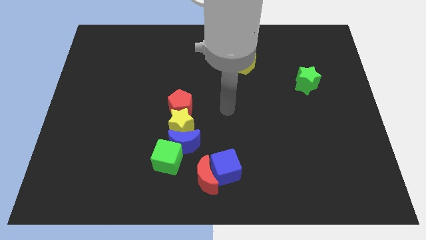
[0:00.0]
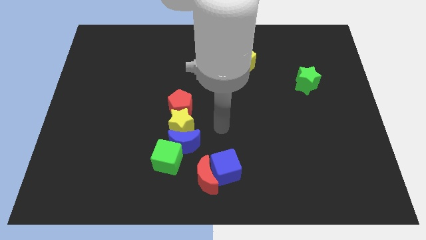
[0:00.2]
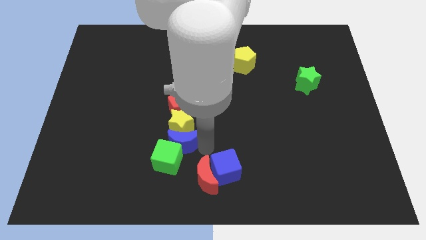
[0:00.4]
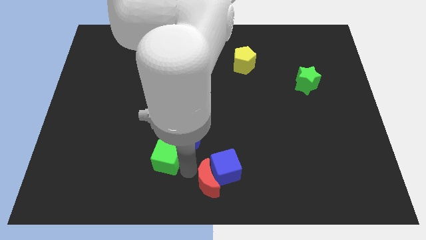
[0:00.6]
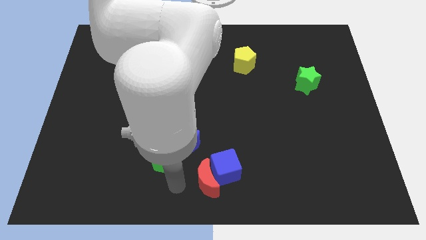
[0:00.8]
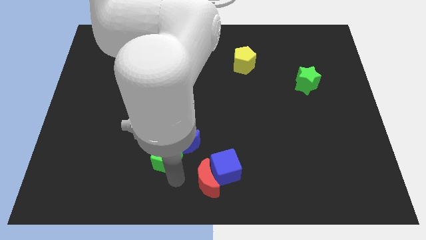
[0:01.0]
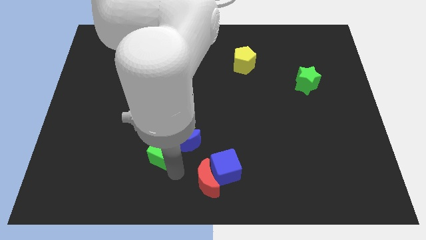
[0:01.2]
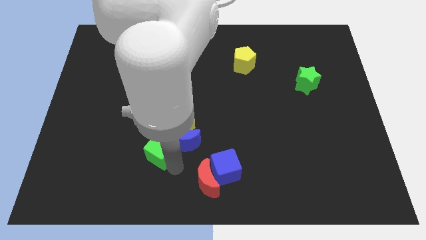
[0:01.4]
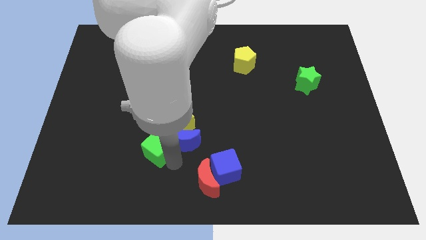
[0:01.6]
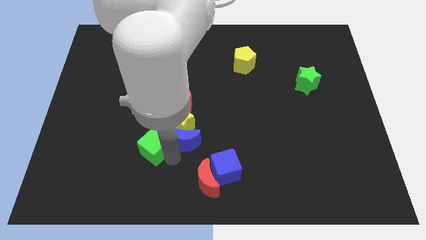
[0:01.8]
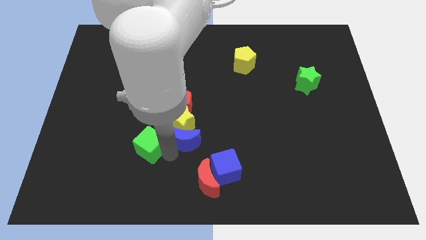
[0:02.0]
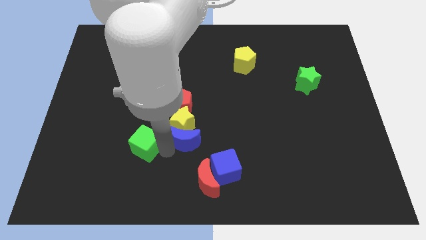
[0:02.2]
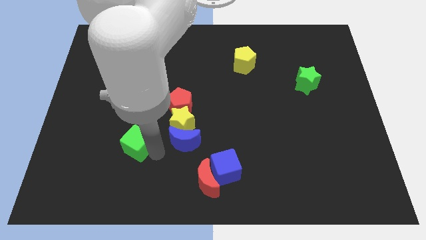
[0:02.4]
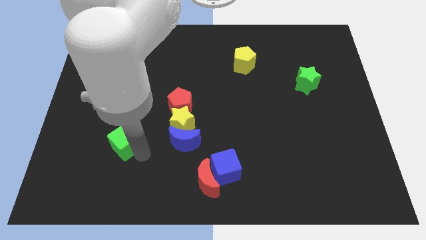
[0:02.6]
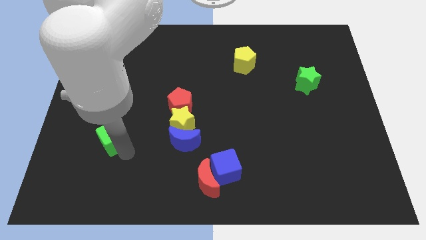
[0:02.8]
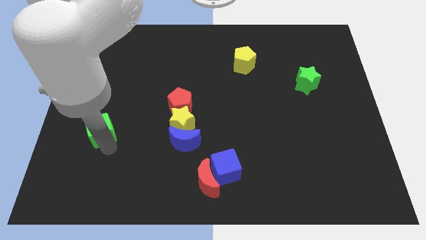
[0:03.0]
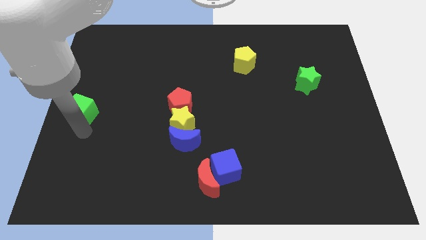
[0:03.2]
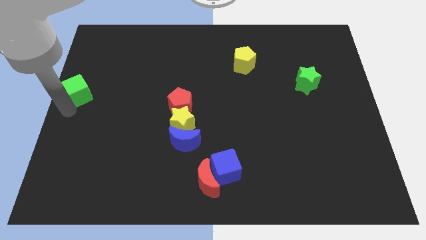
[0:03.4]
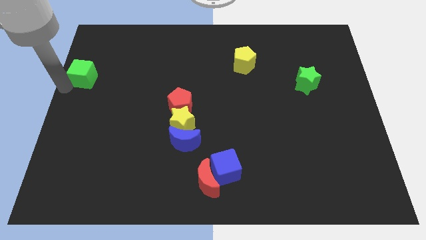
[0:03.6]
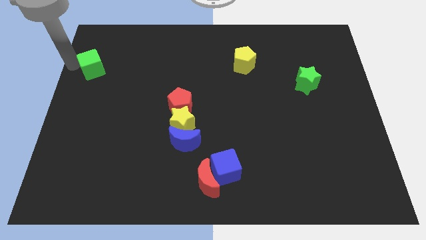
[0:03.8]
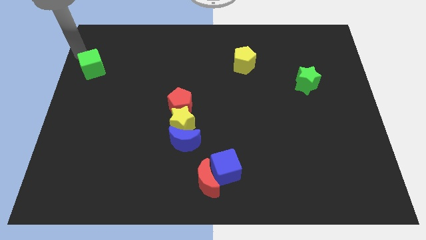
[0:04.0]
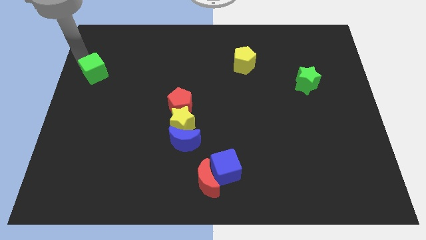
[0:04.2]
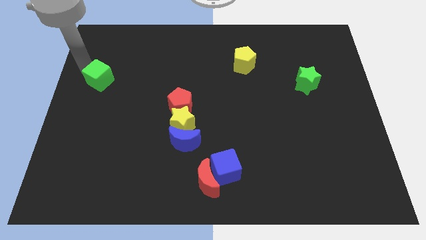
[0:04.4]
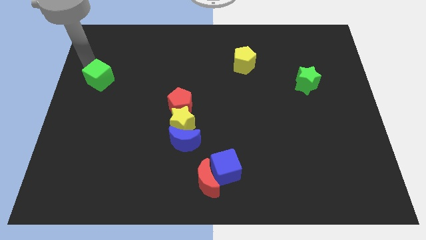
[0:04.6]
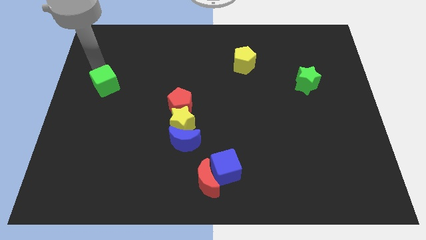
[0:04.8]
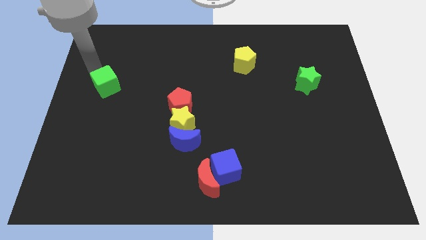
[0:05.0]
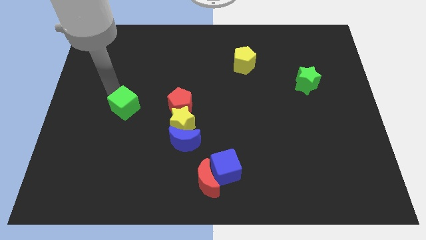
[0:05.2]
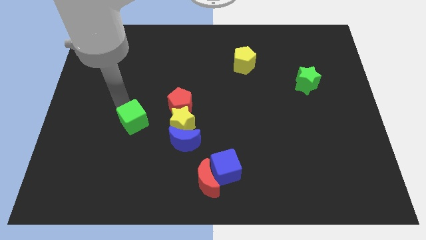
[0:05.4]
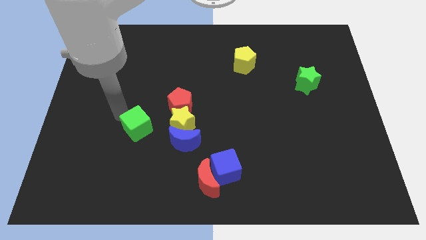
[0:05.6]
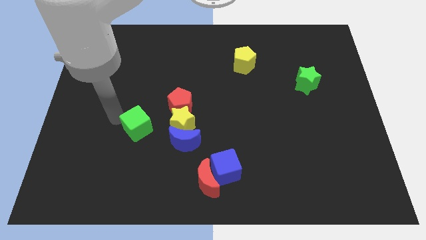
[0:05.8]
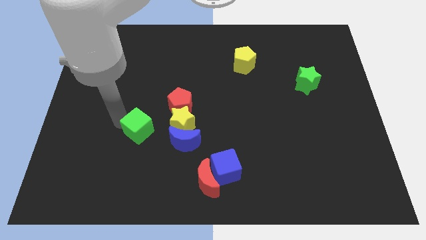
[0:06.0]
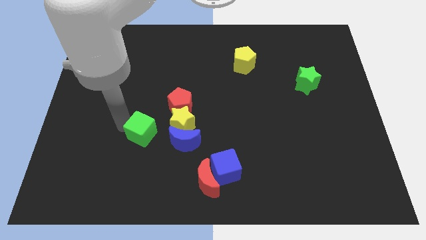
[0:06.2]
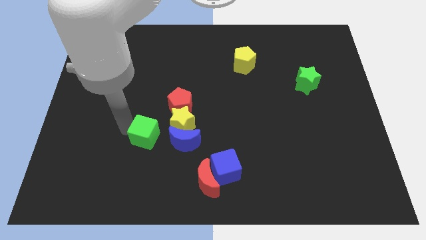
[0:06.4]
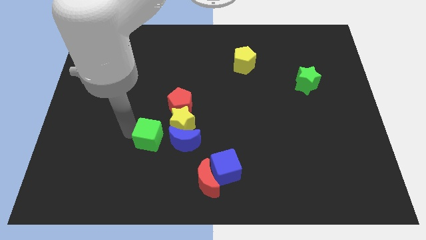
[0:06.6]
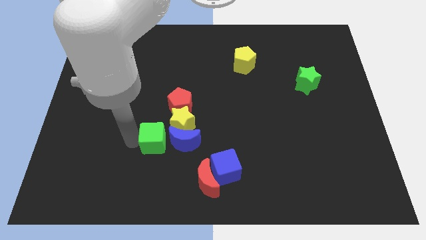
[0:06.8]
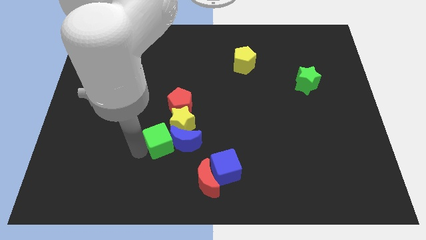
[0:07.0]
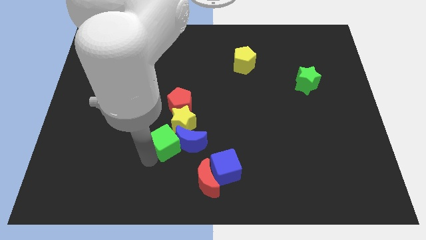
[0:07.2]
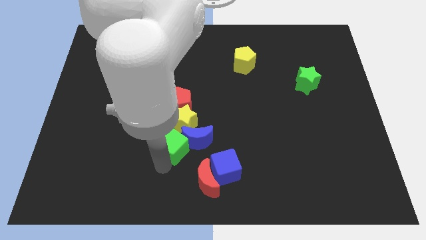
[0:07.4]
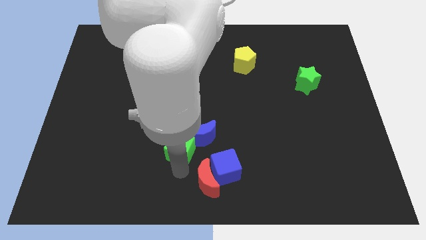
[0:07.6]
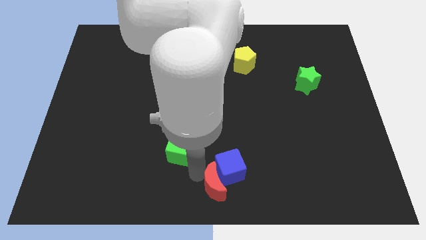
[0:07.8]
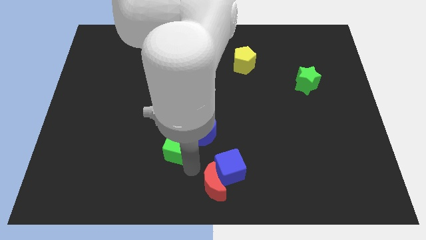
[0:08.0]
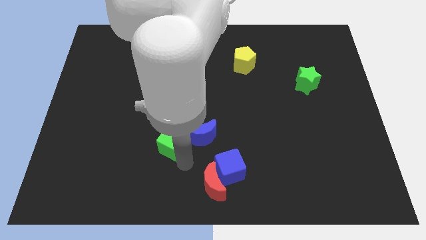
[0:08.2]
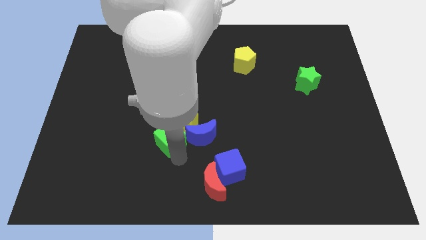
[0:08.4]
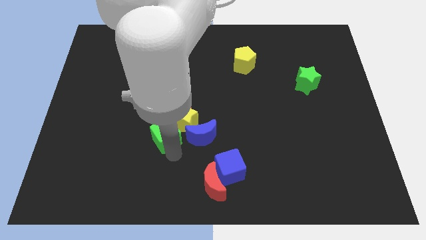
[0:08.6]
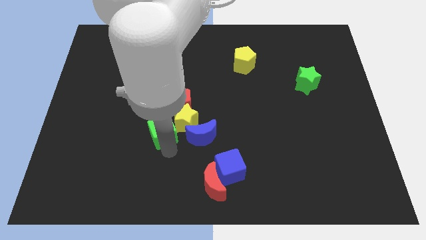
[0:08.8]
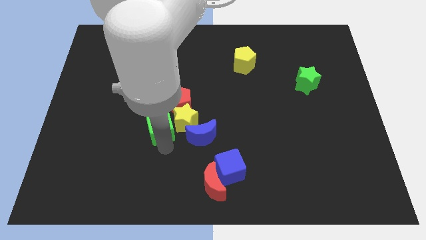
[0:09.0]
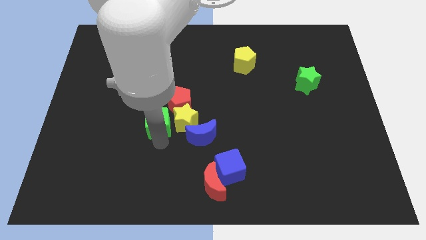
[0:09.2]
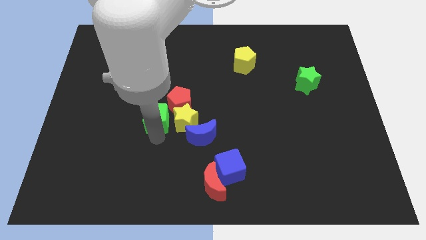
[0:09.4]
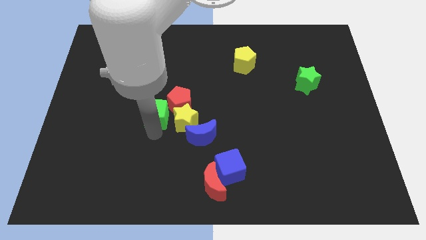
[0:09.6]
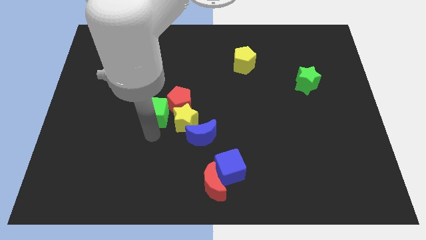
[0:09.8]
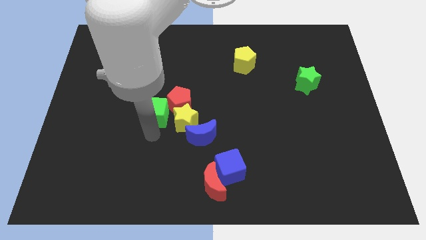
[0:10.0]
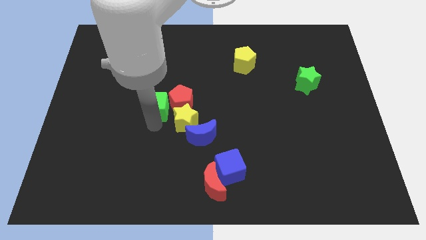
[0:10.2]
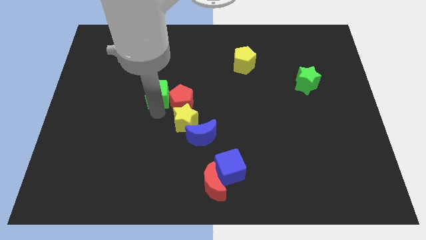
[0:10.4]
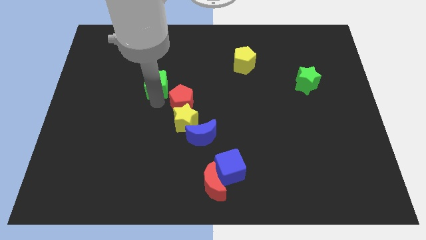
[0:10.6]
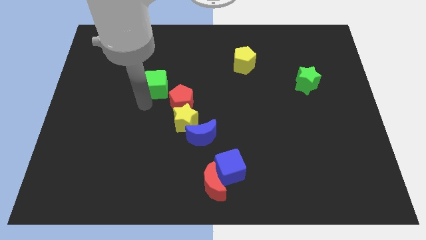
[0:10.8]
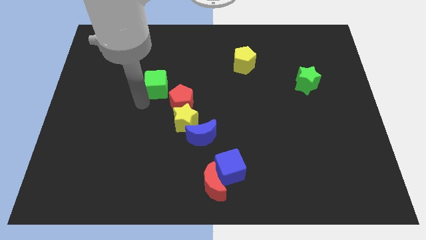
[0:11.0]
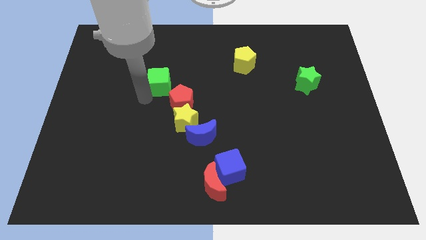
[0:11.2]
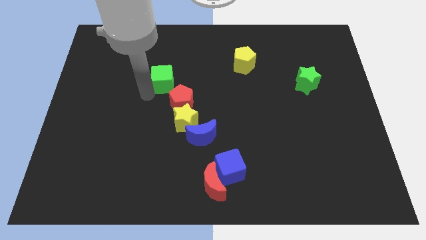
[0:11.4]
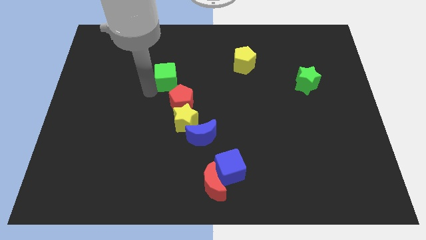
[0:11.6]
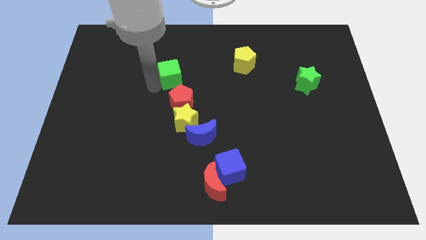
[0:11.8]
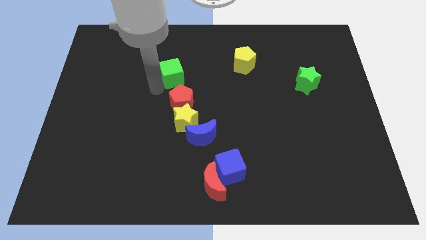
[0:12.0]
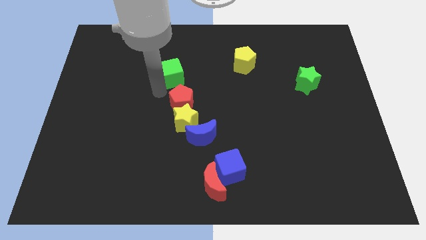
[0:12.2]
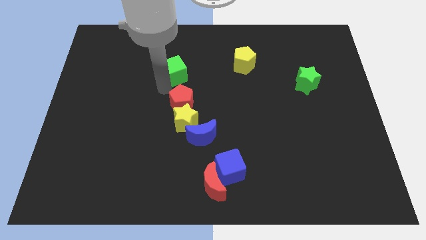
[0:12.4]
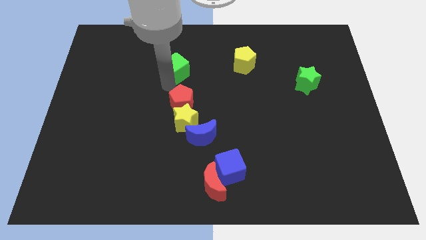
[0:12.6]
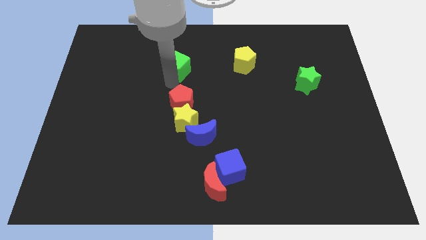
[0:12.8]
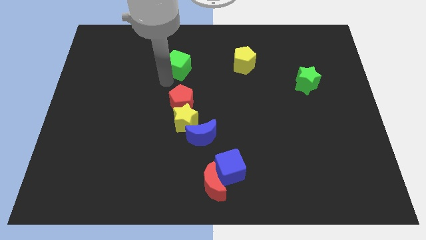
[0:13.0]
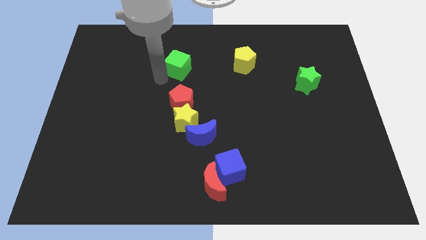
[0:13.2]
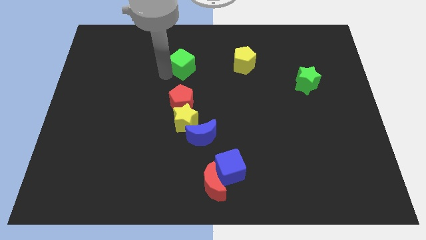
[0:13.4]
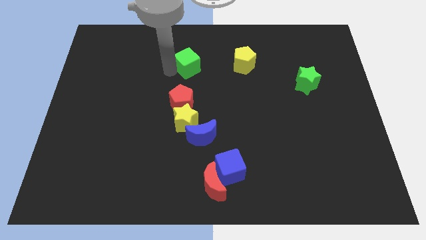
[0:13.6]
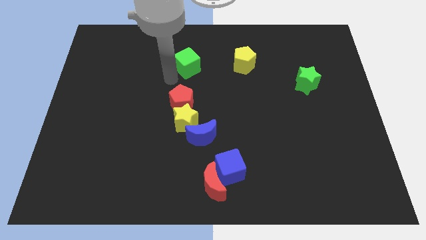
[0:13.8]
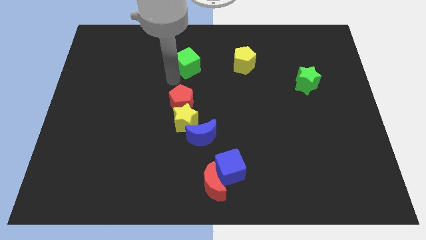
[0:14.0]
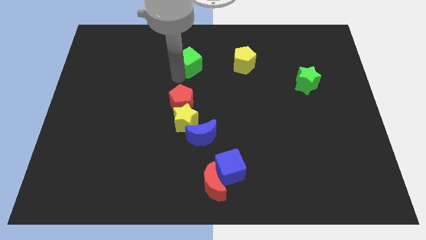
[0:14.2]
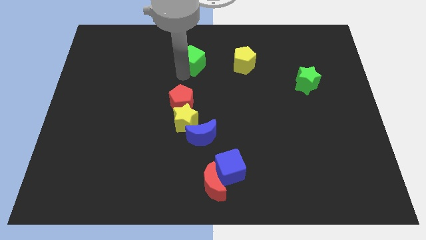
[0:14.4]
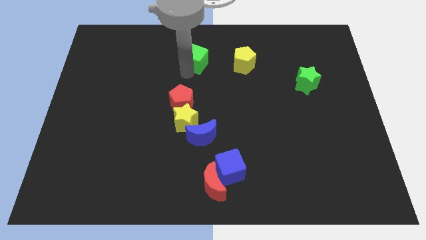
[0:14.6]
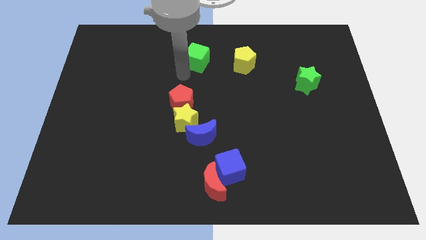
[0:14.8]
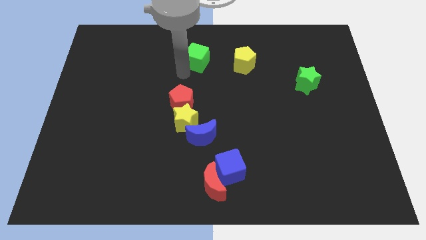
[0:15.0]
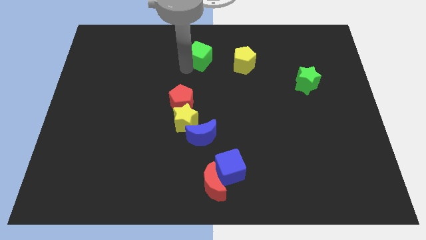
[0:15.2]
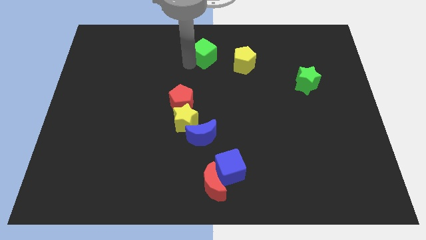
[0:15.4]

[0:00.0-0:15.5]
slide the green cube to the towards your base
